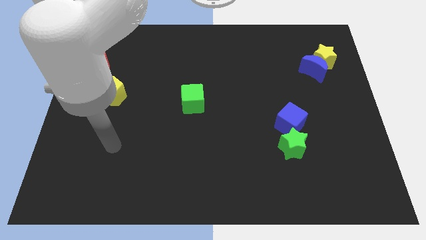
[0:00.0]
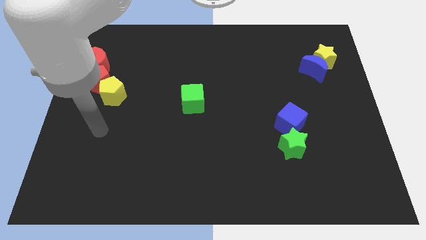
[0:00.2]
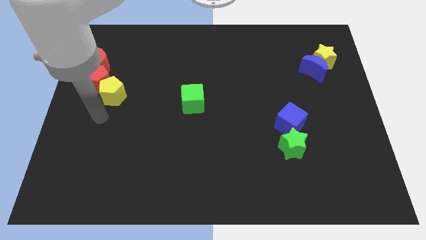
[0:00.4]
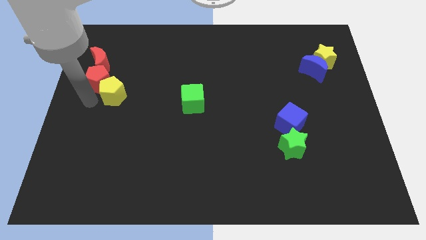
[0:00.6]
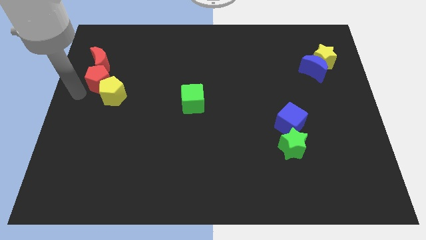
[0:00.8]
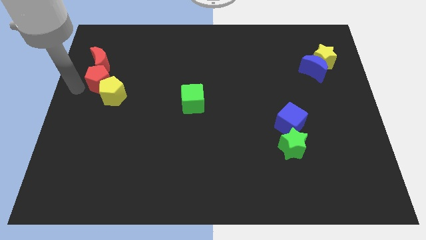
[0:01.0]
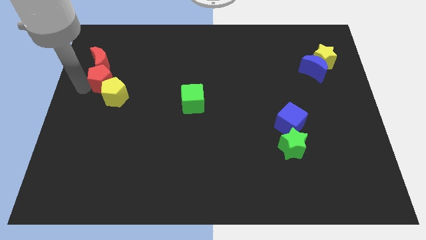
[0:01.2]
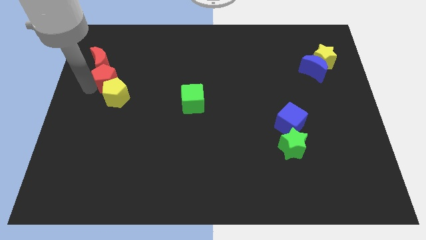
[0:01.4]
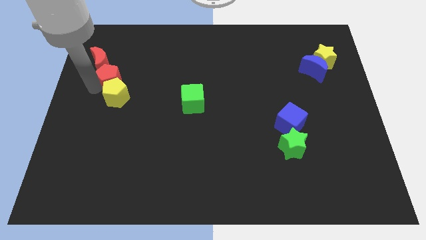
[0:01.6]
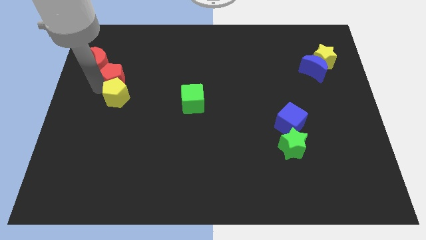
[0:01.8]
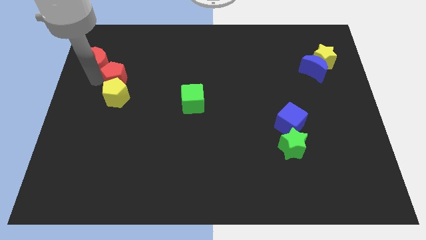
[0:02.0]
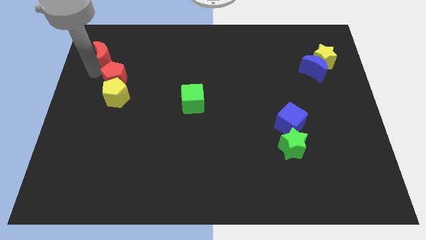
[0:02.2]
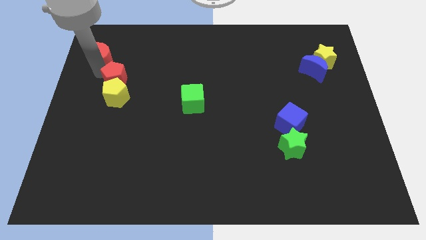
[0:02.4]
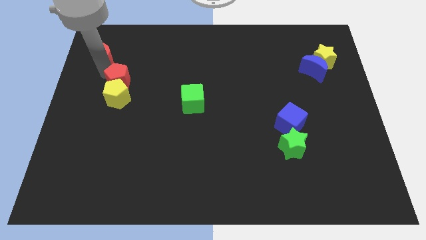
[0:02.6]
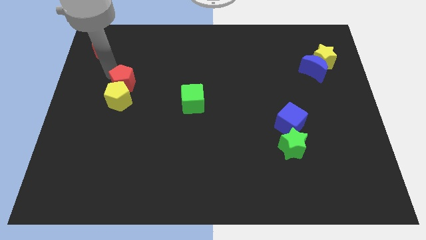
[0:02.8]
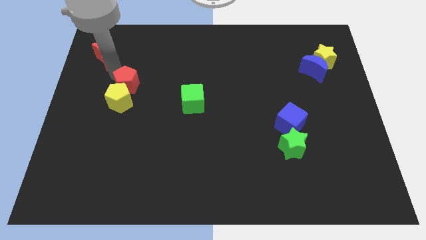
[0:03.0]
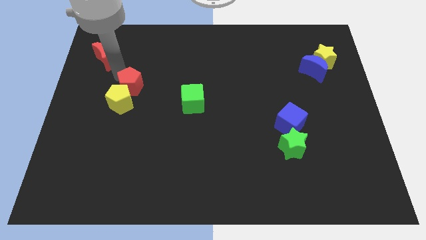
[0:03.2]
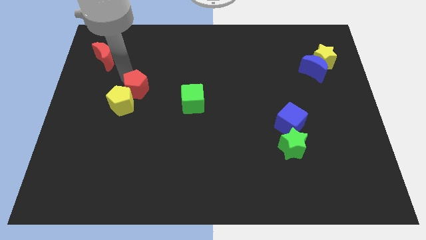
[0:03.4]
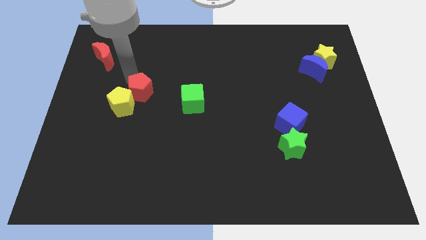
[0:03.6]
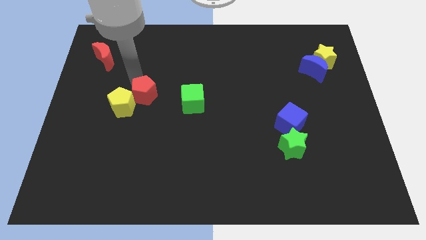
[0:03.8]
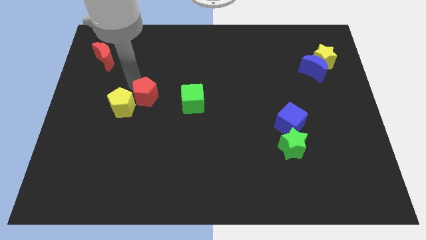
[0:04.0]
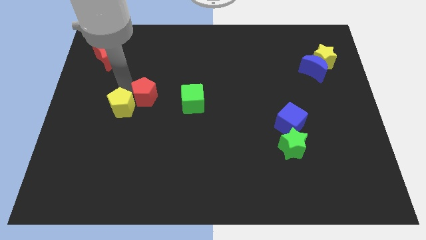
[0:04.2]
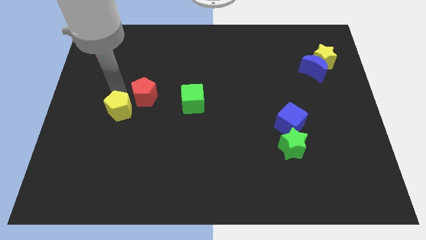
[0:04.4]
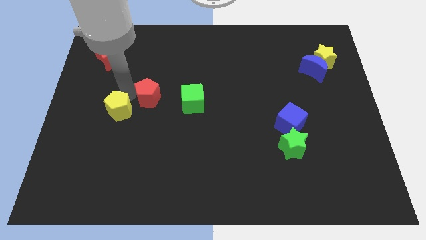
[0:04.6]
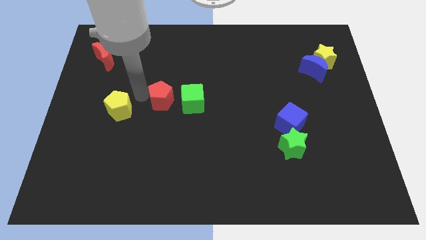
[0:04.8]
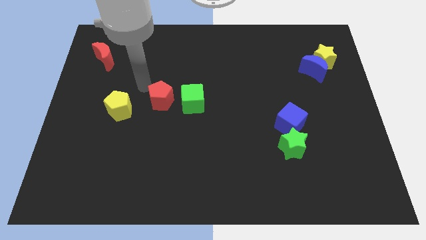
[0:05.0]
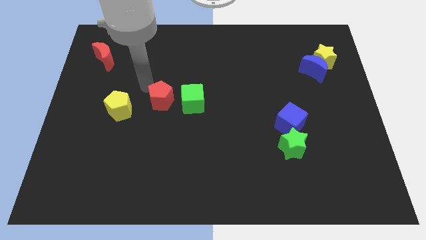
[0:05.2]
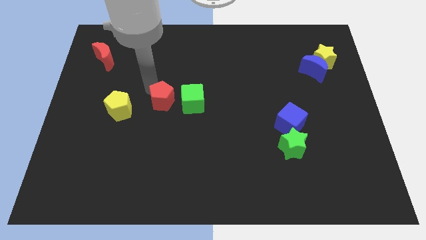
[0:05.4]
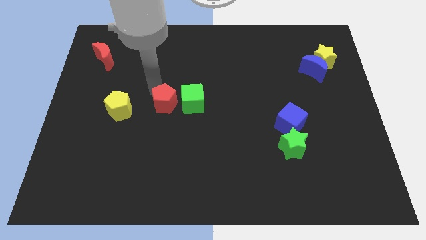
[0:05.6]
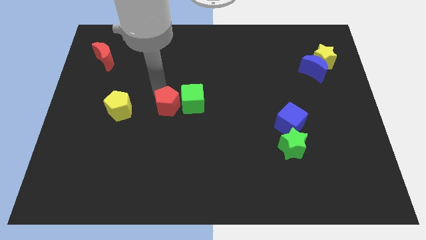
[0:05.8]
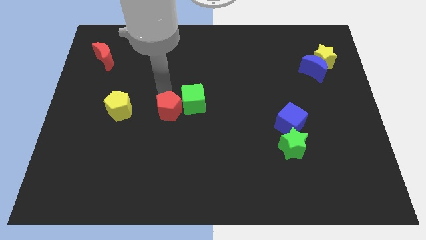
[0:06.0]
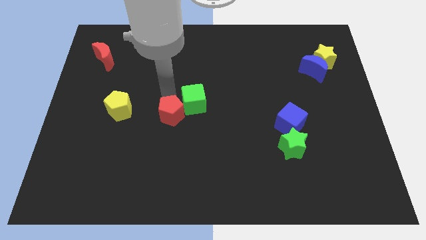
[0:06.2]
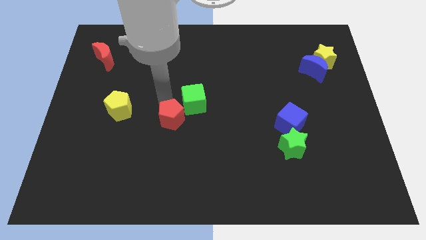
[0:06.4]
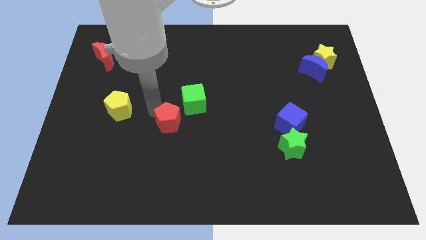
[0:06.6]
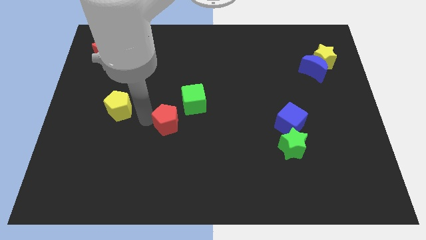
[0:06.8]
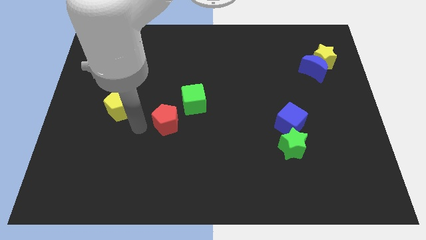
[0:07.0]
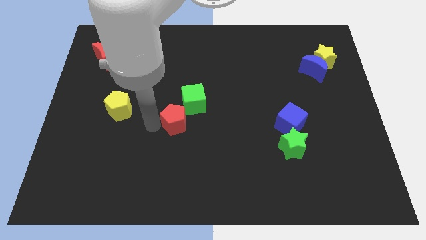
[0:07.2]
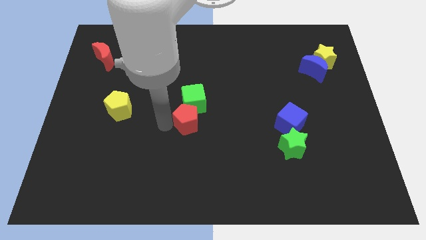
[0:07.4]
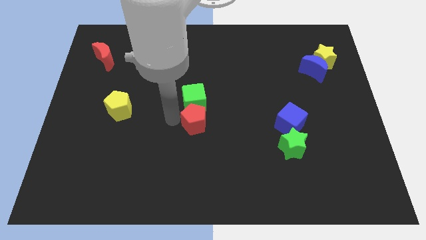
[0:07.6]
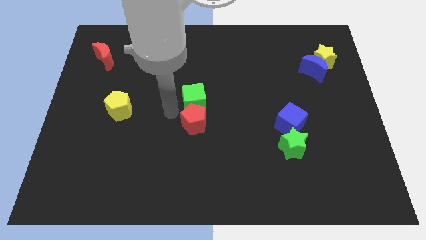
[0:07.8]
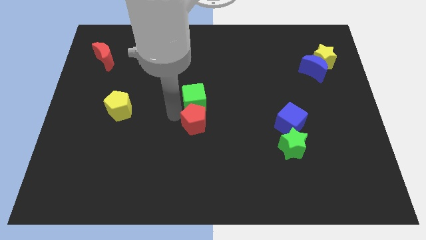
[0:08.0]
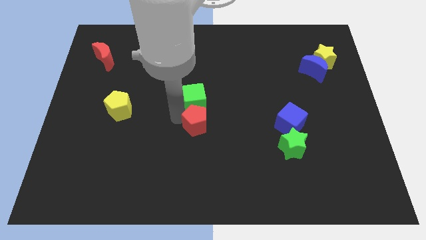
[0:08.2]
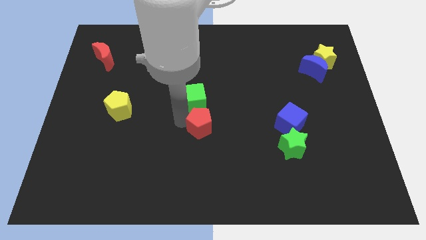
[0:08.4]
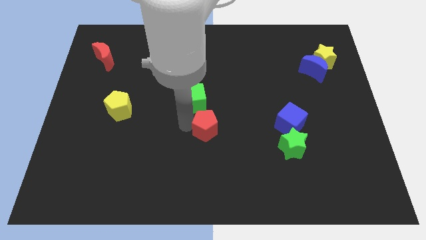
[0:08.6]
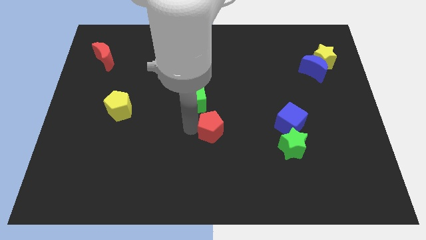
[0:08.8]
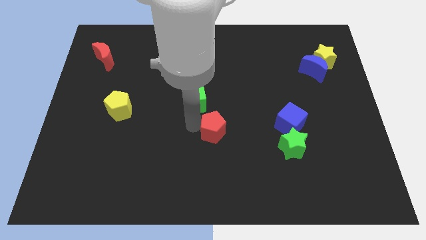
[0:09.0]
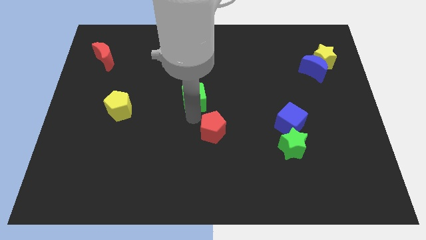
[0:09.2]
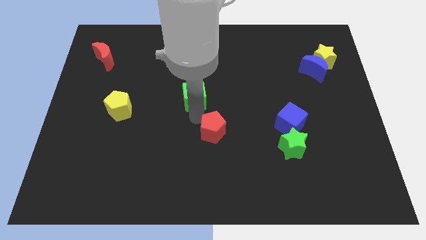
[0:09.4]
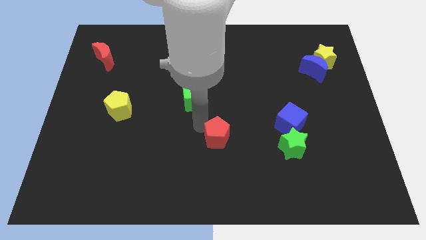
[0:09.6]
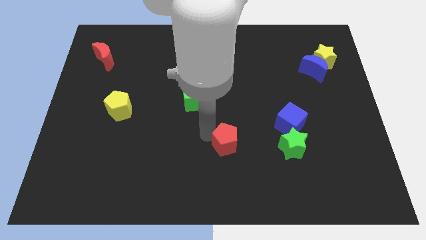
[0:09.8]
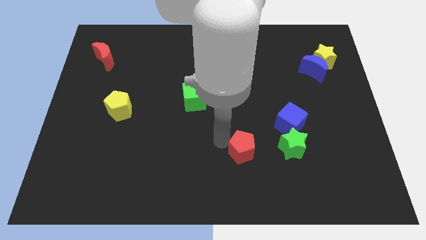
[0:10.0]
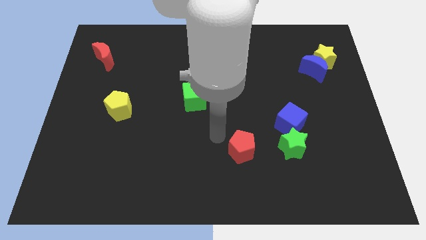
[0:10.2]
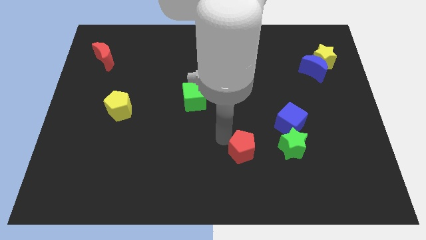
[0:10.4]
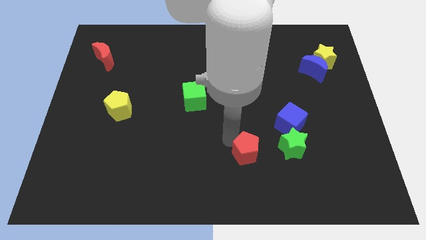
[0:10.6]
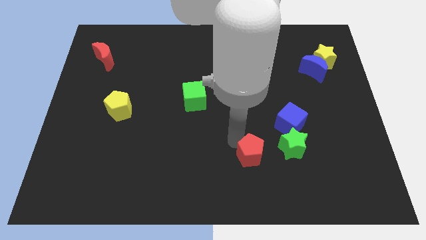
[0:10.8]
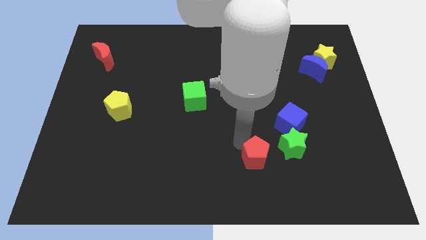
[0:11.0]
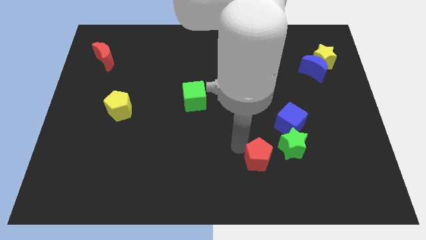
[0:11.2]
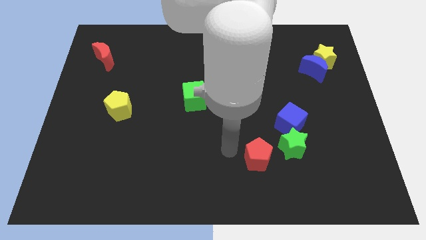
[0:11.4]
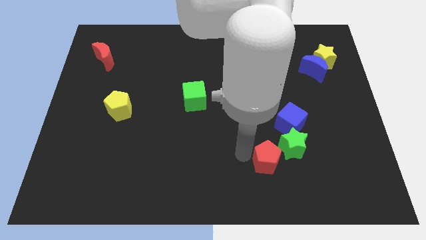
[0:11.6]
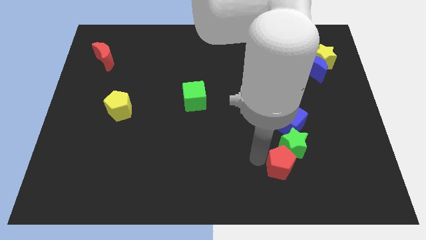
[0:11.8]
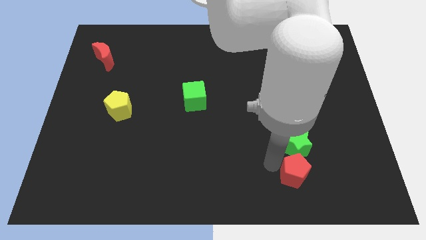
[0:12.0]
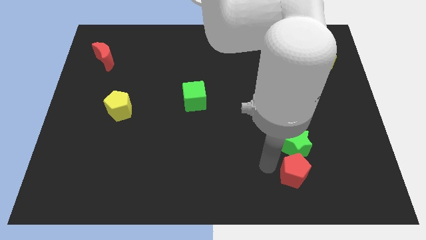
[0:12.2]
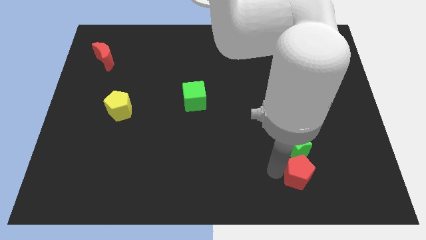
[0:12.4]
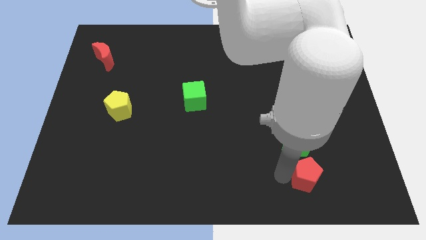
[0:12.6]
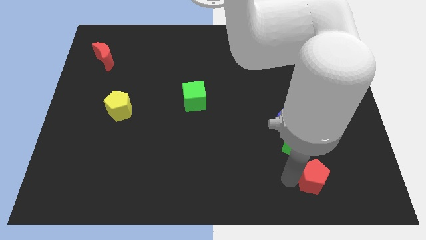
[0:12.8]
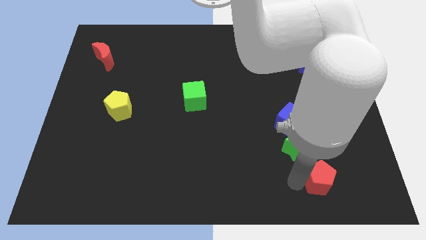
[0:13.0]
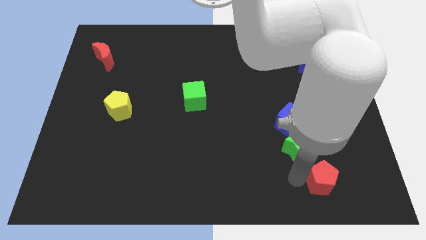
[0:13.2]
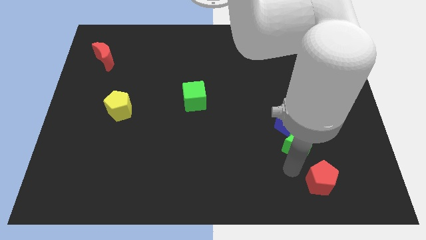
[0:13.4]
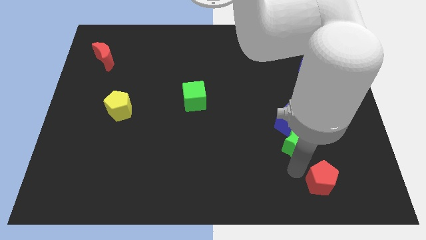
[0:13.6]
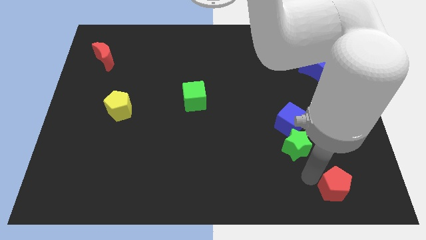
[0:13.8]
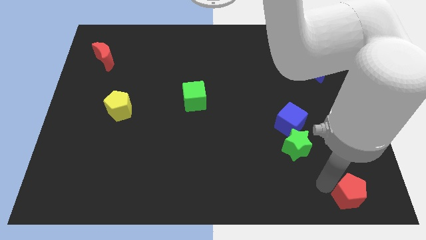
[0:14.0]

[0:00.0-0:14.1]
move the red pentagon to the bottom right of the board
